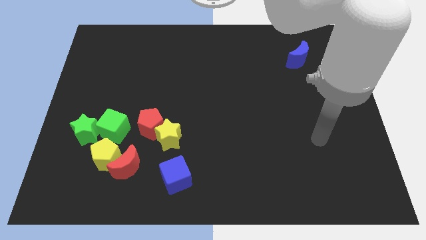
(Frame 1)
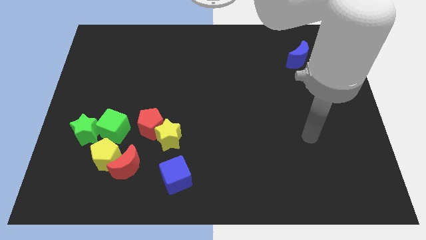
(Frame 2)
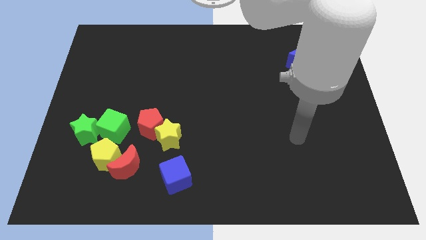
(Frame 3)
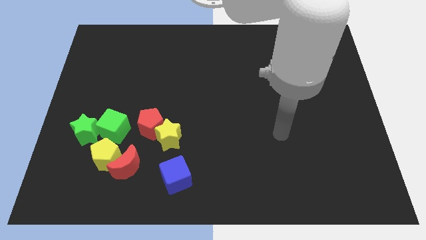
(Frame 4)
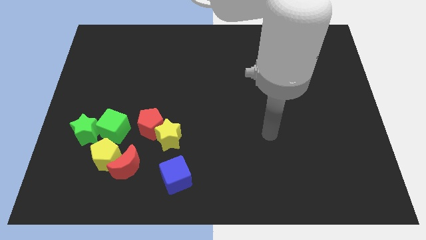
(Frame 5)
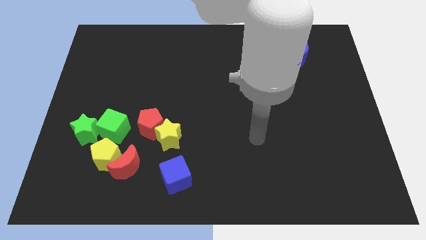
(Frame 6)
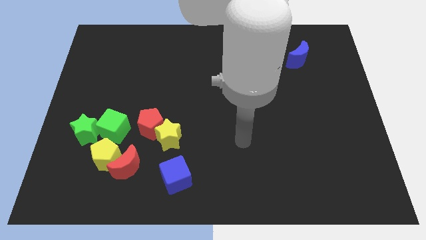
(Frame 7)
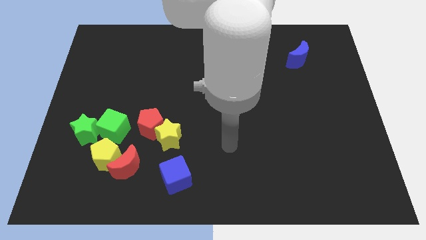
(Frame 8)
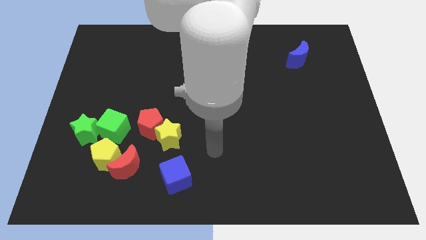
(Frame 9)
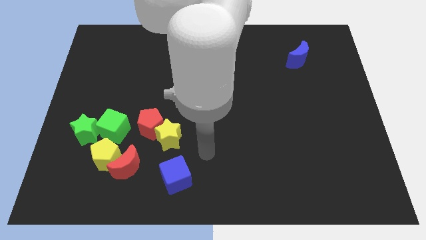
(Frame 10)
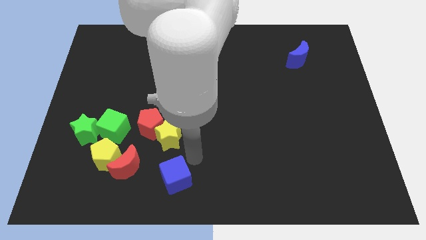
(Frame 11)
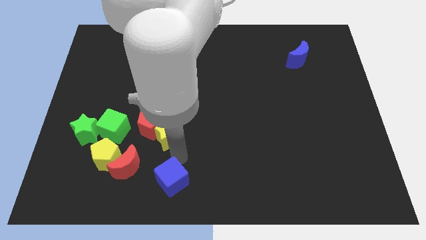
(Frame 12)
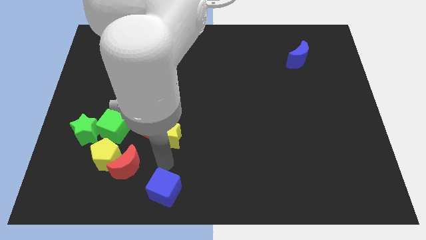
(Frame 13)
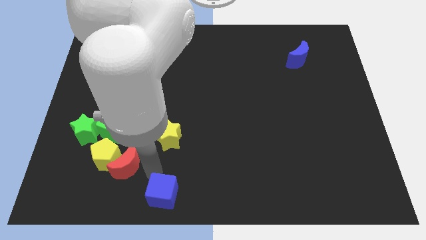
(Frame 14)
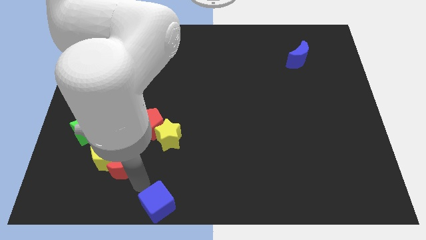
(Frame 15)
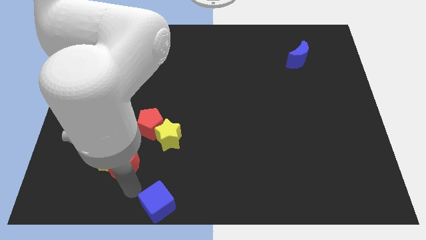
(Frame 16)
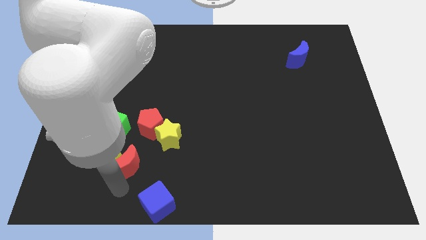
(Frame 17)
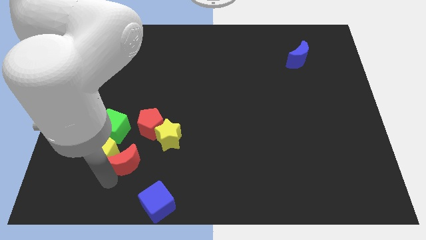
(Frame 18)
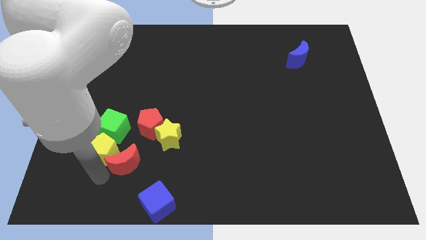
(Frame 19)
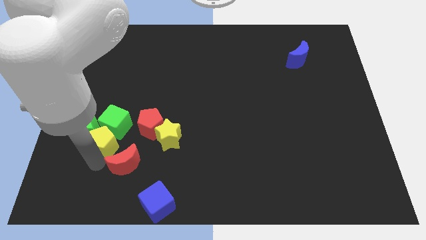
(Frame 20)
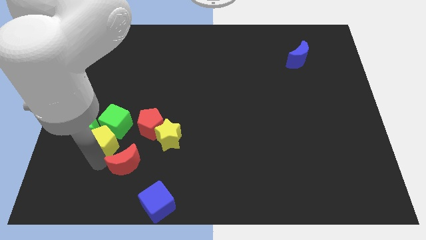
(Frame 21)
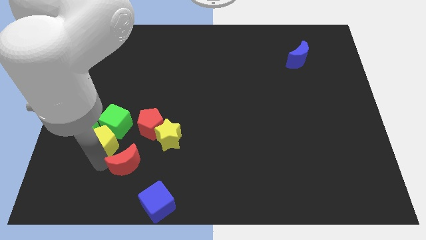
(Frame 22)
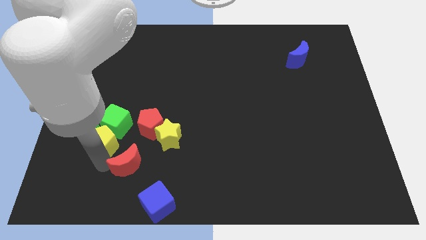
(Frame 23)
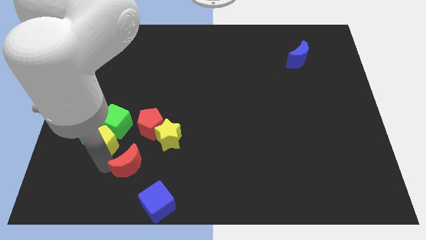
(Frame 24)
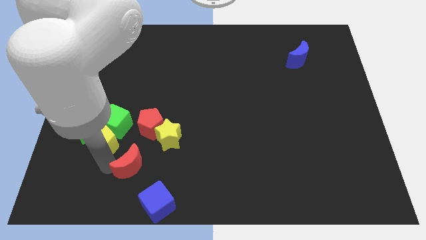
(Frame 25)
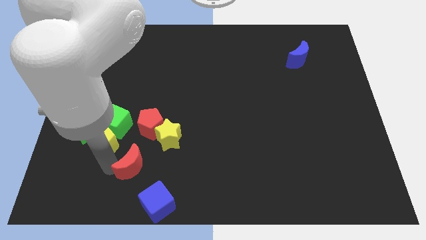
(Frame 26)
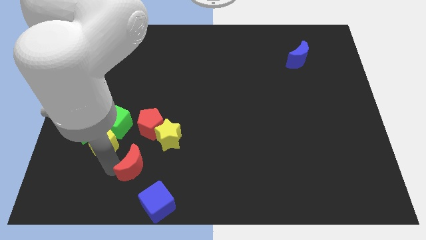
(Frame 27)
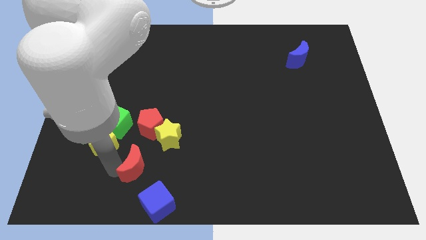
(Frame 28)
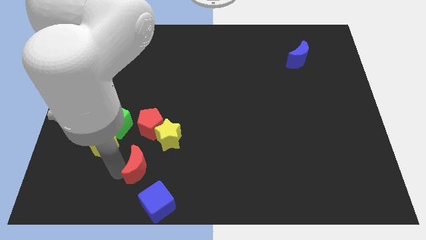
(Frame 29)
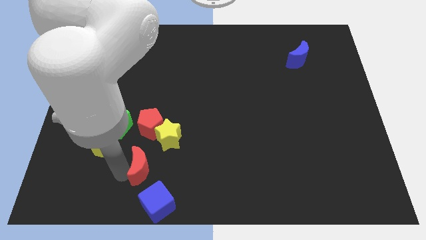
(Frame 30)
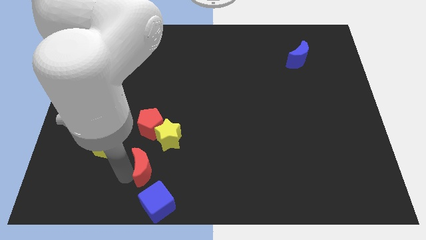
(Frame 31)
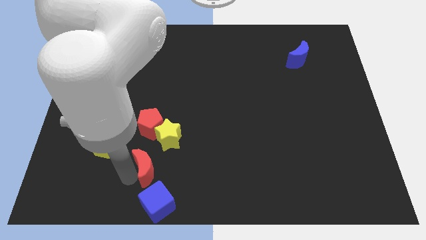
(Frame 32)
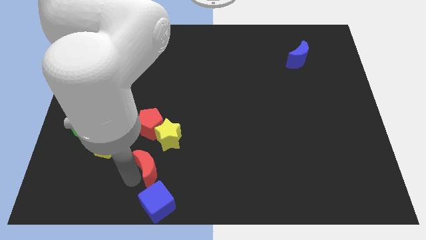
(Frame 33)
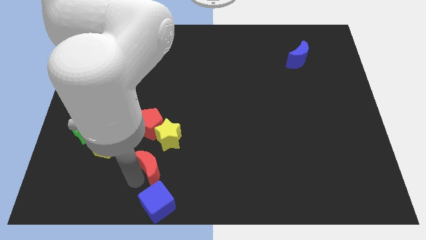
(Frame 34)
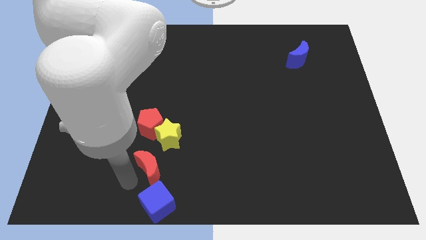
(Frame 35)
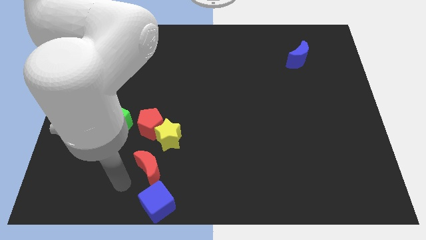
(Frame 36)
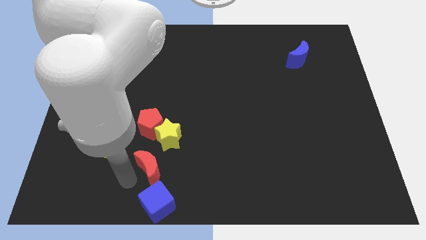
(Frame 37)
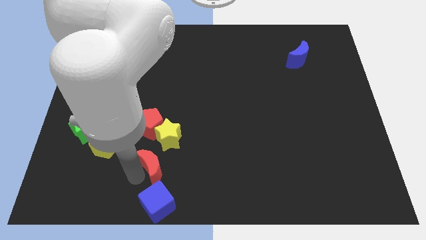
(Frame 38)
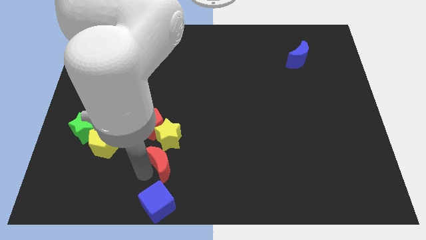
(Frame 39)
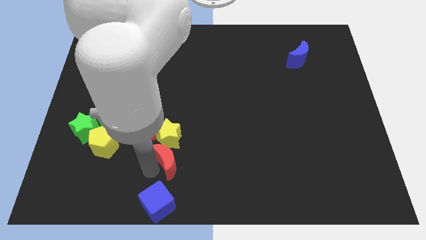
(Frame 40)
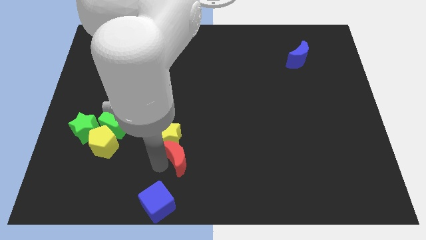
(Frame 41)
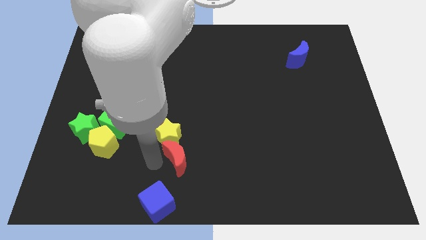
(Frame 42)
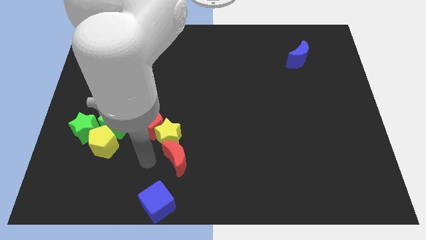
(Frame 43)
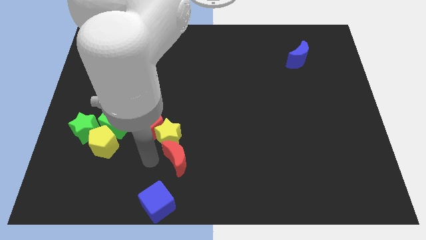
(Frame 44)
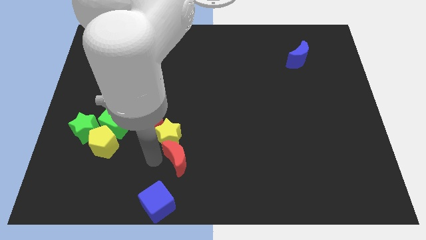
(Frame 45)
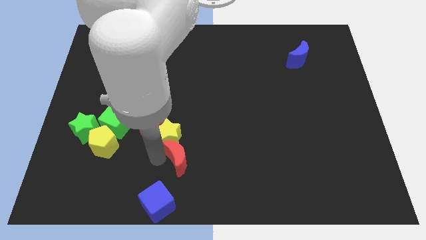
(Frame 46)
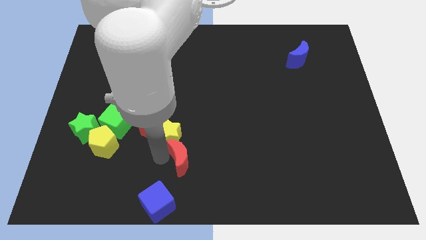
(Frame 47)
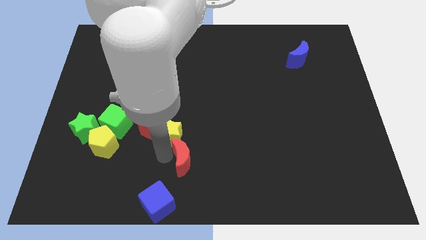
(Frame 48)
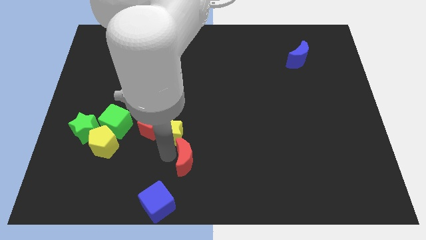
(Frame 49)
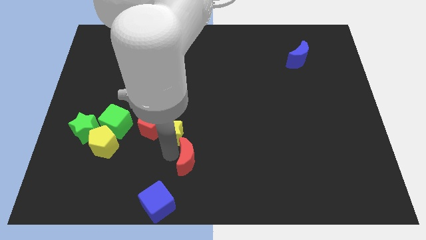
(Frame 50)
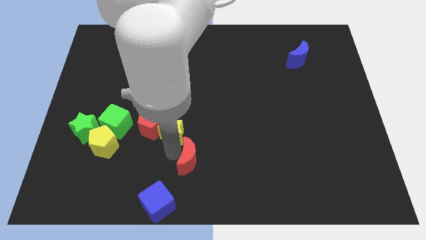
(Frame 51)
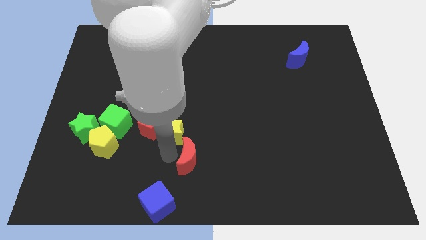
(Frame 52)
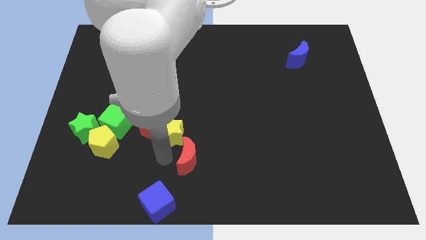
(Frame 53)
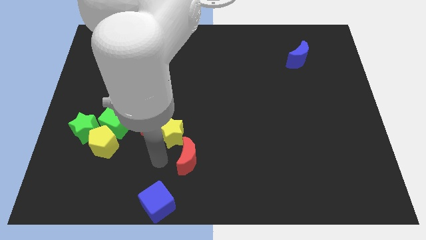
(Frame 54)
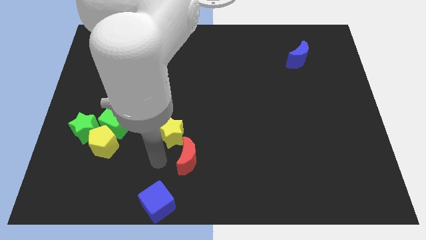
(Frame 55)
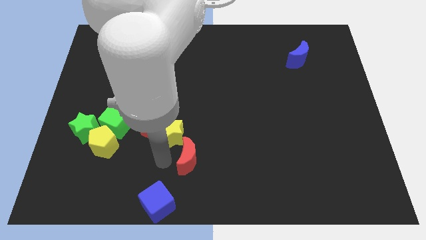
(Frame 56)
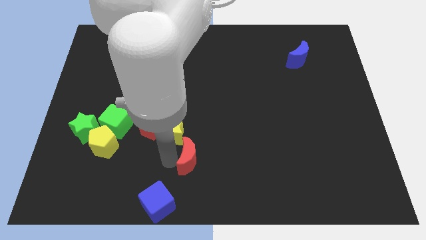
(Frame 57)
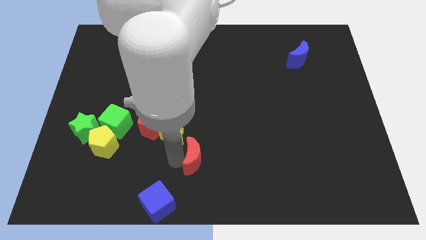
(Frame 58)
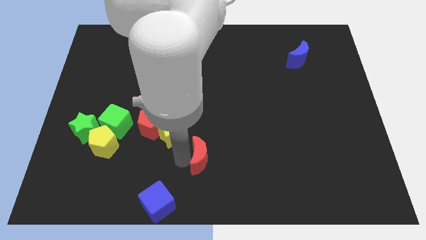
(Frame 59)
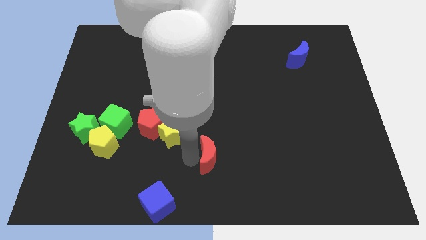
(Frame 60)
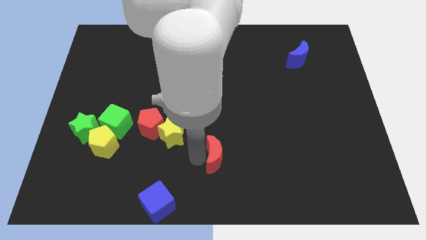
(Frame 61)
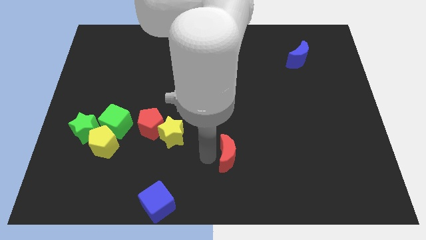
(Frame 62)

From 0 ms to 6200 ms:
slide the red moon to the right

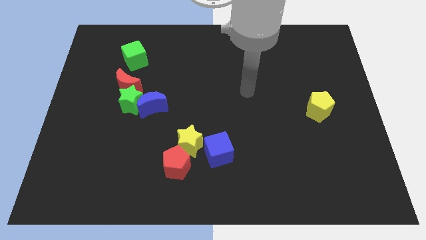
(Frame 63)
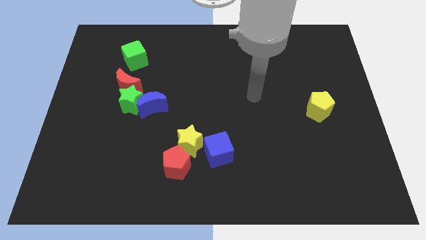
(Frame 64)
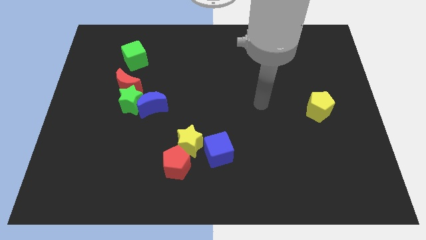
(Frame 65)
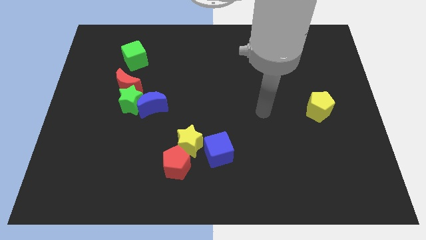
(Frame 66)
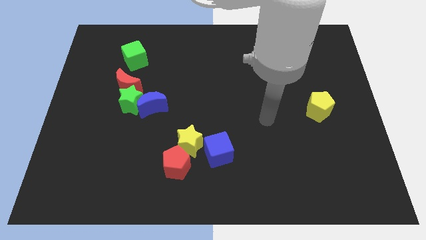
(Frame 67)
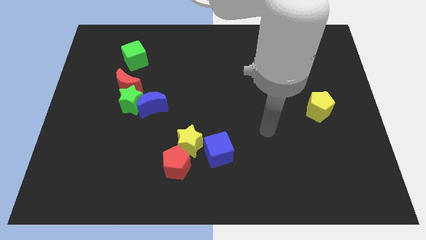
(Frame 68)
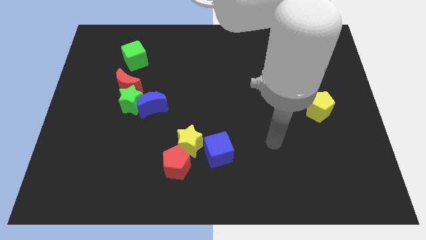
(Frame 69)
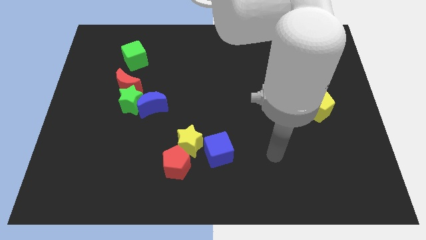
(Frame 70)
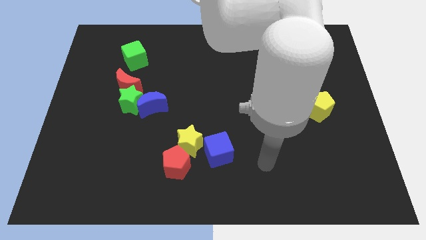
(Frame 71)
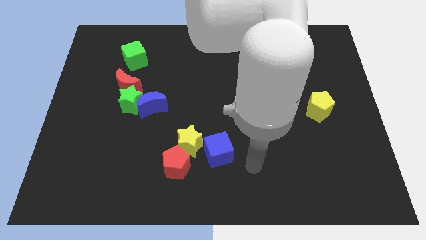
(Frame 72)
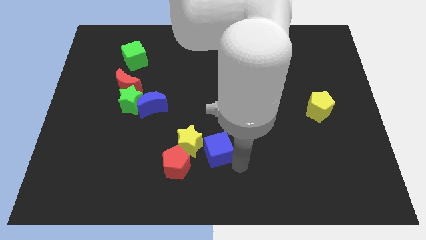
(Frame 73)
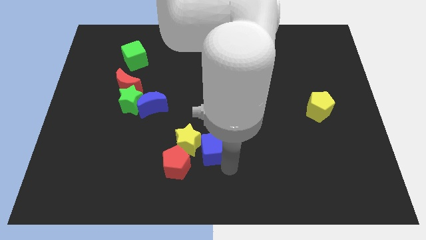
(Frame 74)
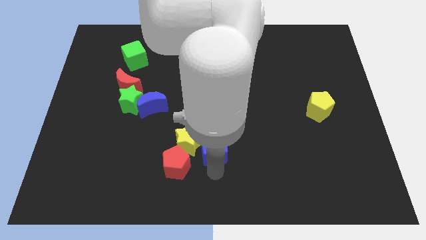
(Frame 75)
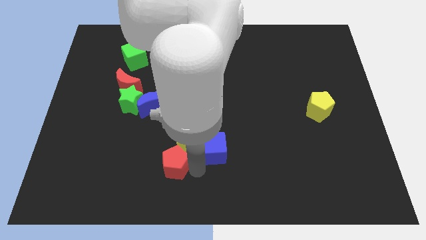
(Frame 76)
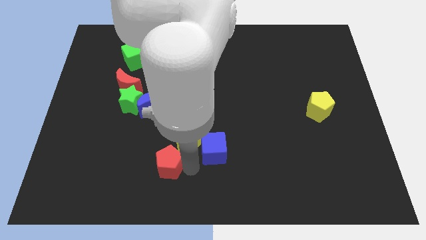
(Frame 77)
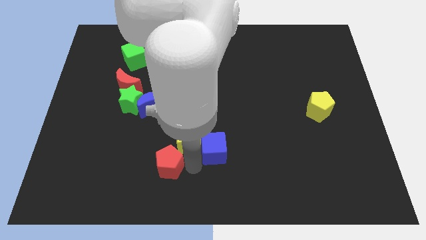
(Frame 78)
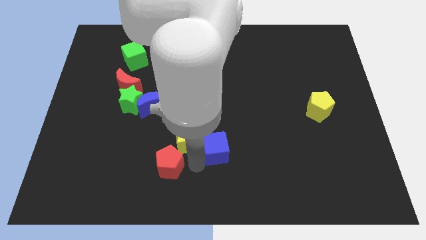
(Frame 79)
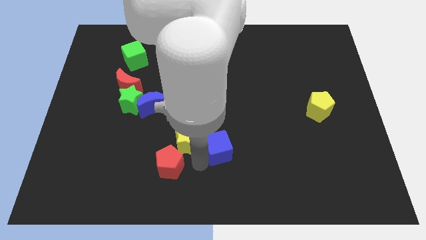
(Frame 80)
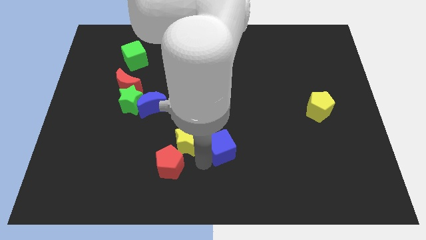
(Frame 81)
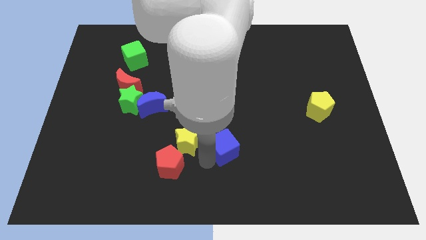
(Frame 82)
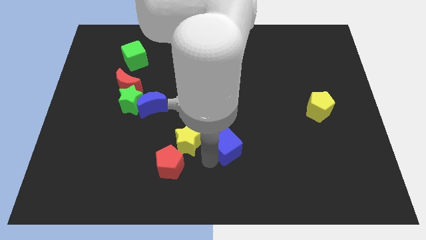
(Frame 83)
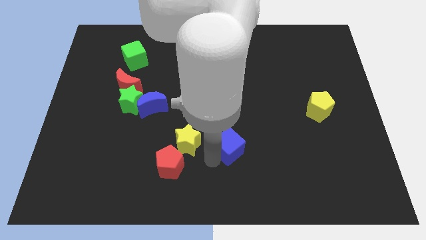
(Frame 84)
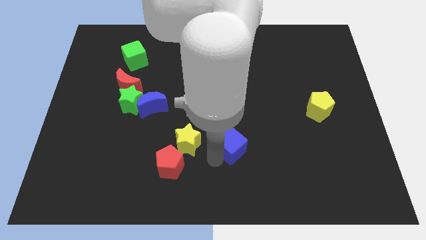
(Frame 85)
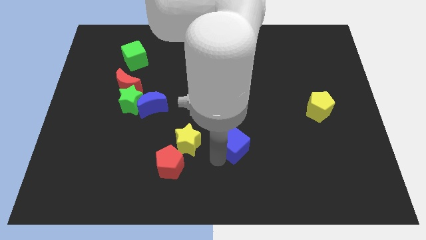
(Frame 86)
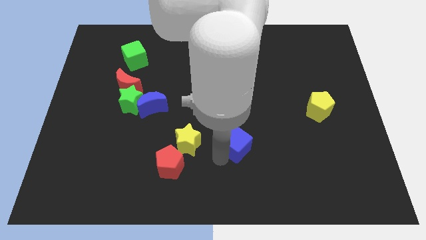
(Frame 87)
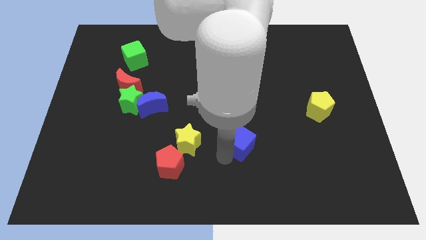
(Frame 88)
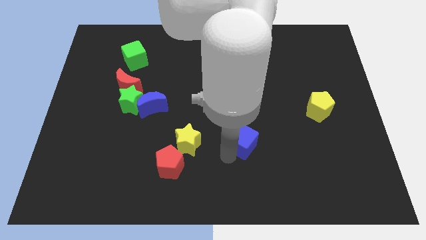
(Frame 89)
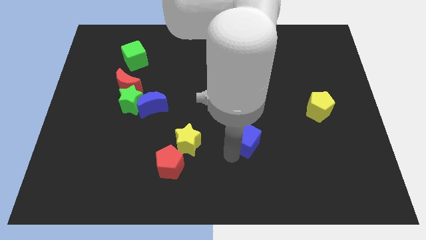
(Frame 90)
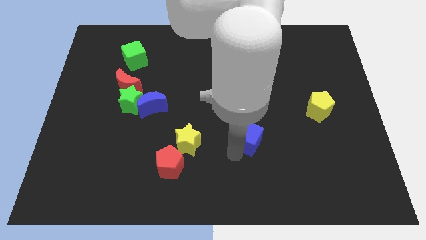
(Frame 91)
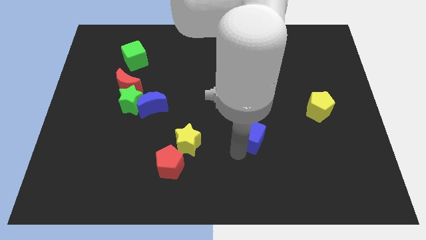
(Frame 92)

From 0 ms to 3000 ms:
slightly move the blue cube up and right diagonally
